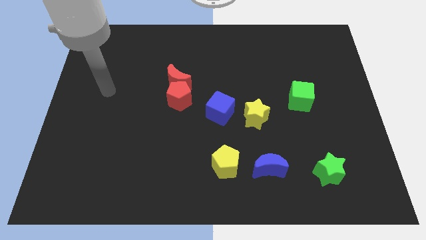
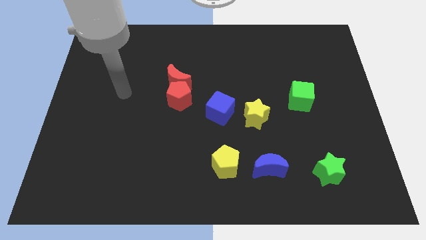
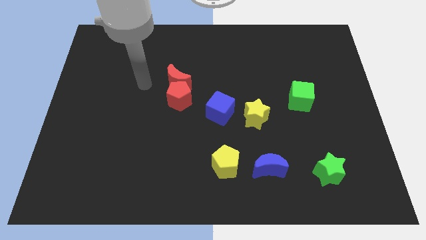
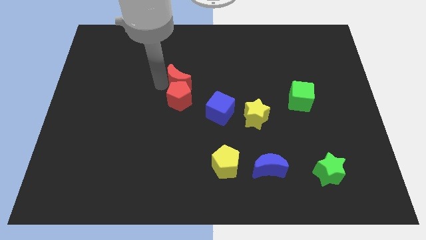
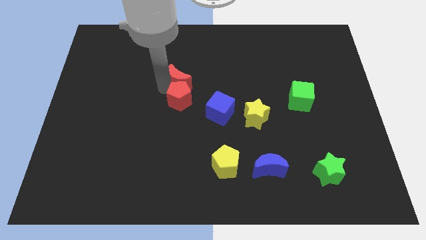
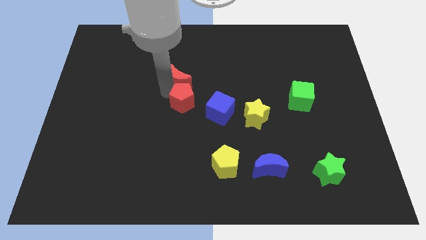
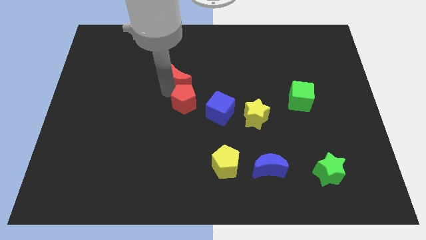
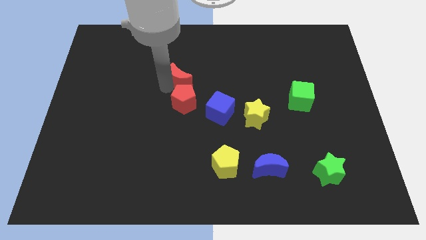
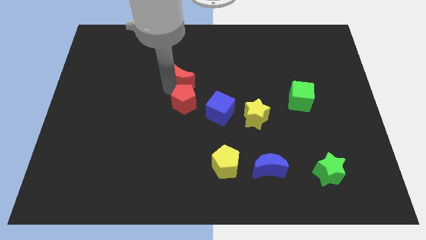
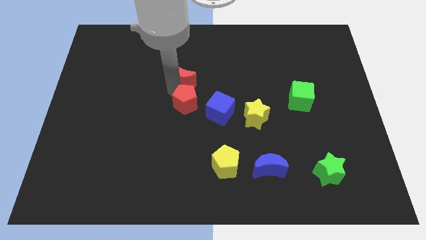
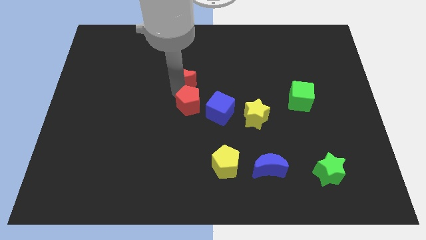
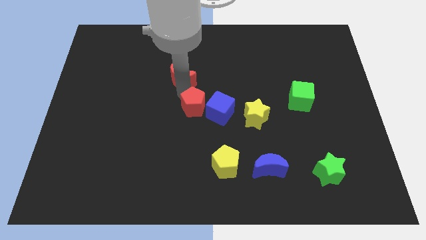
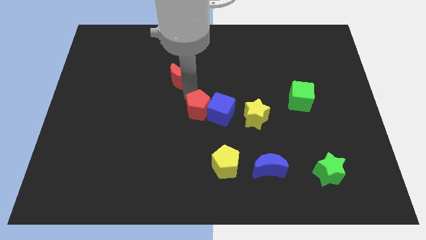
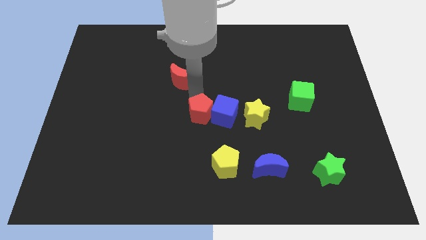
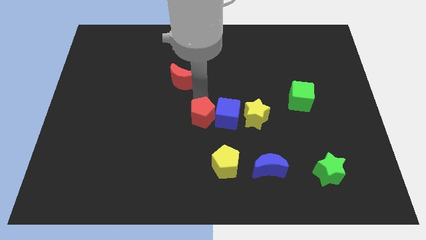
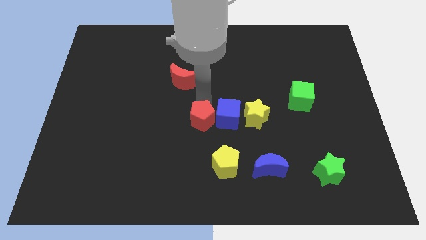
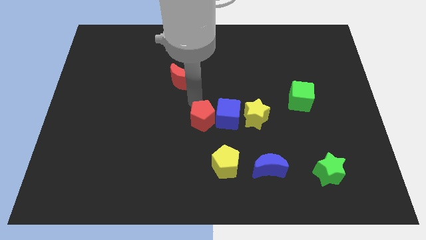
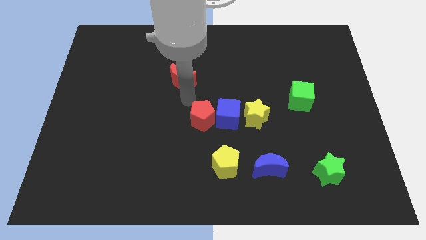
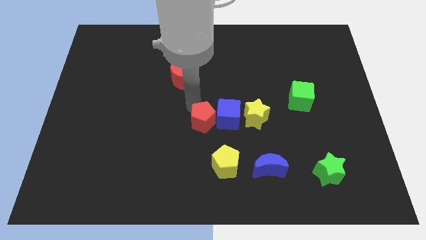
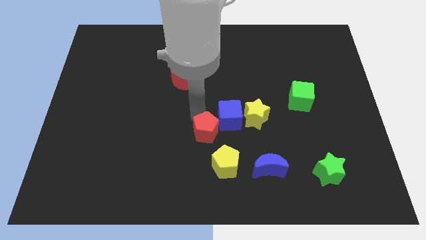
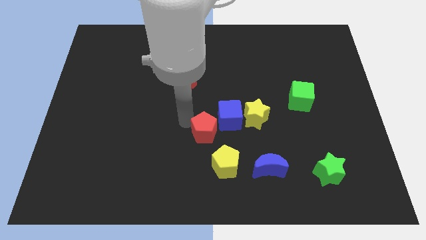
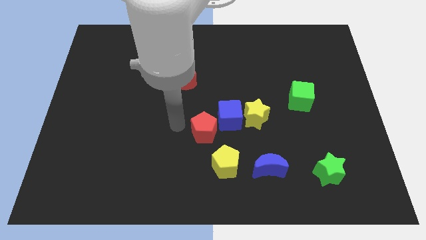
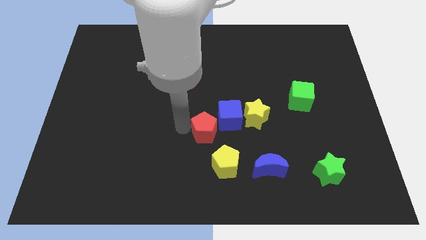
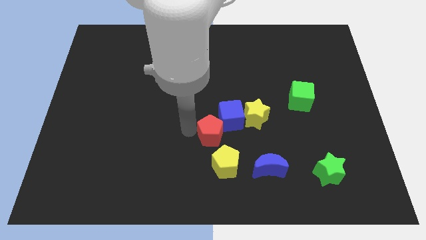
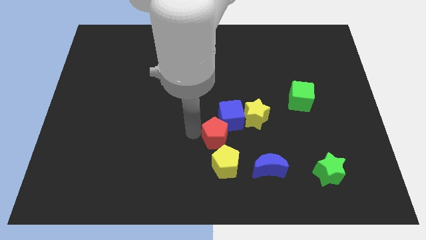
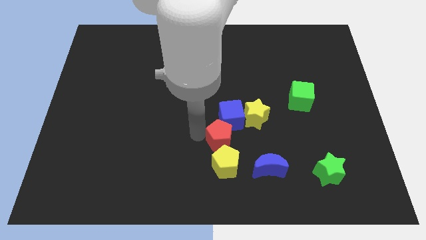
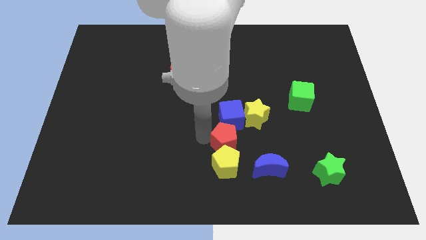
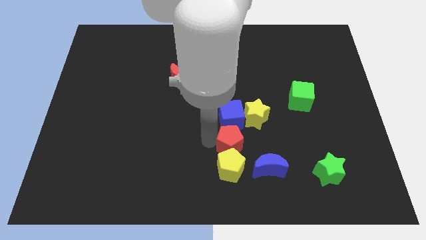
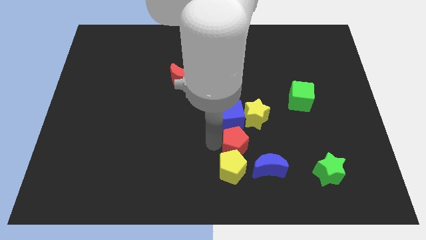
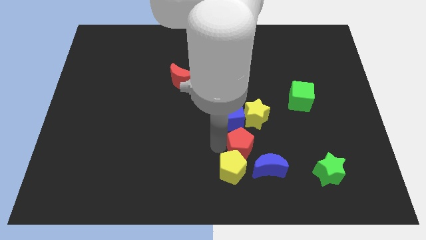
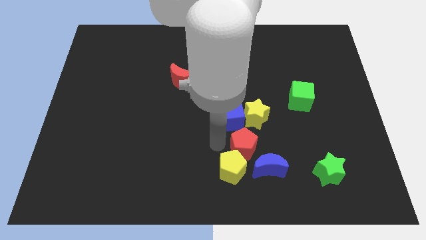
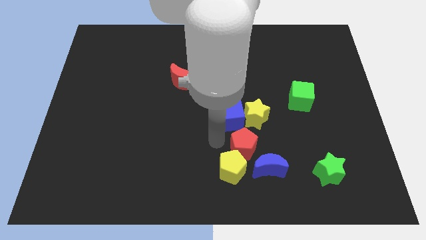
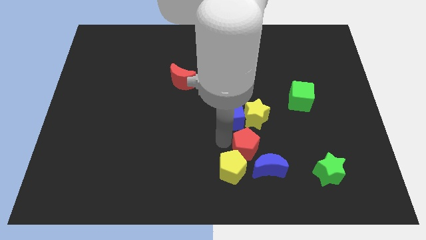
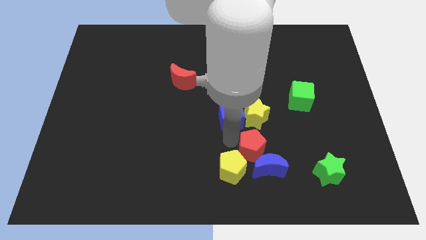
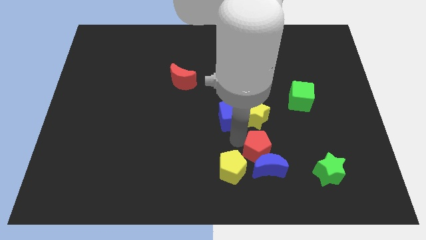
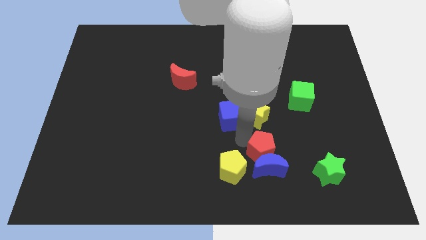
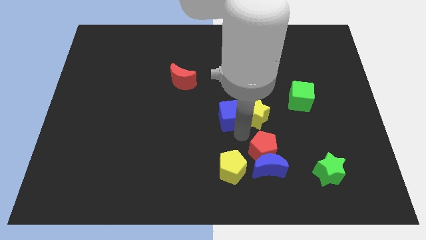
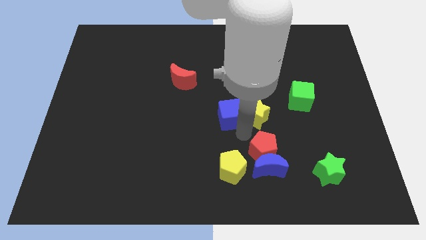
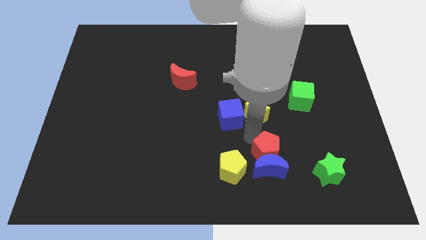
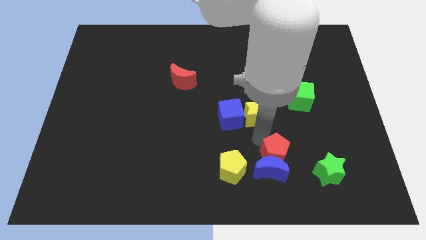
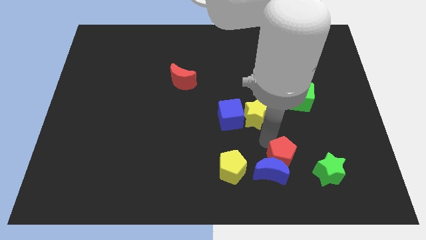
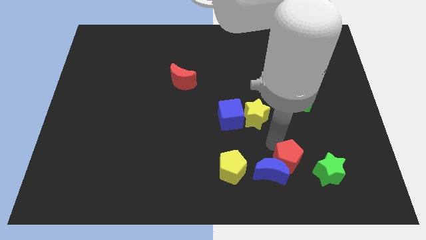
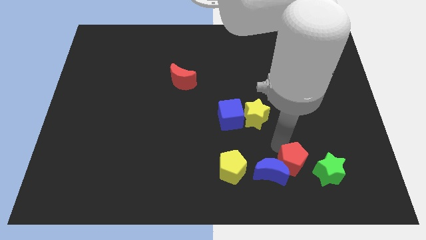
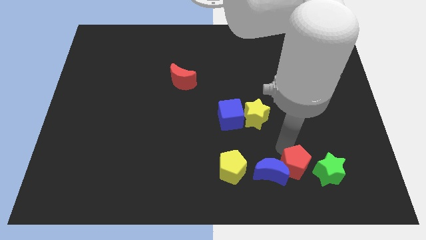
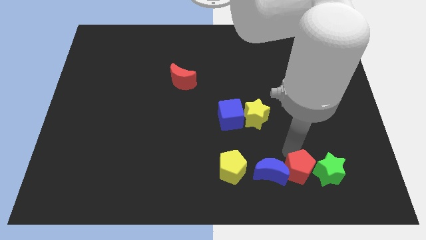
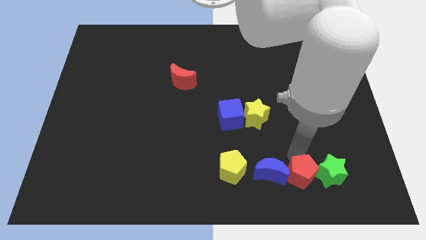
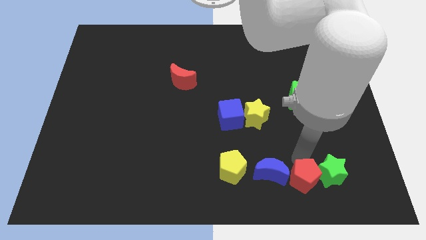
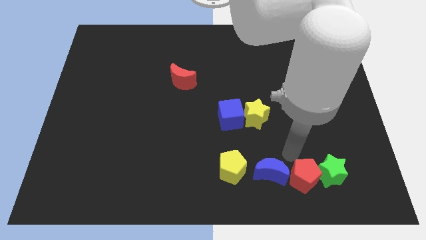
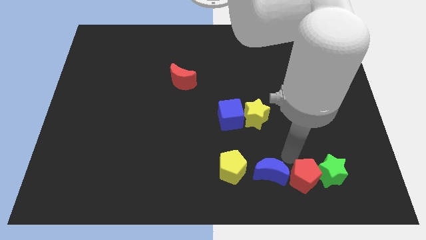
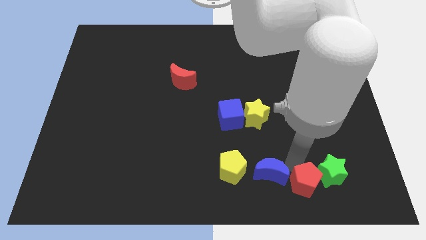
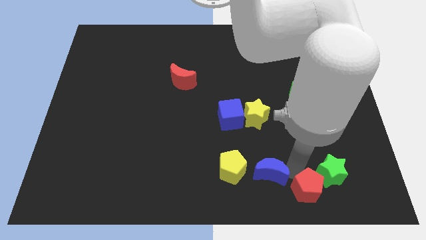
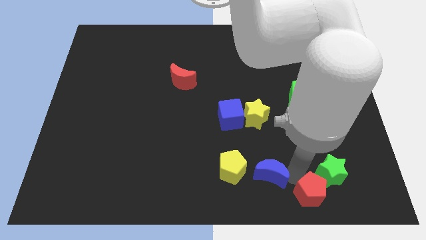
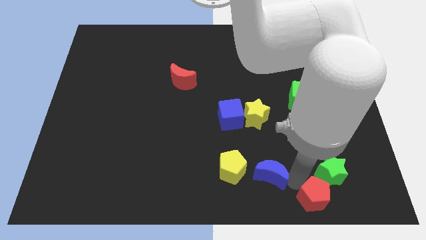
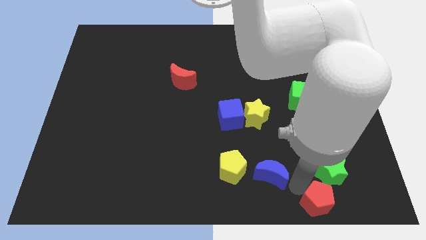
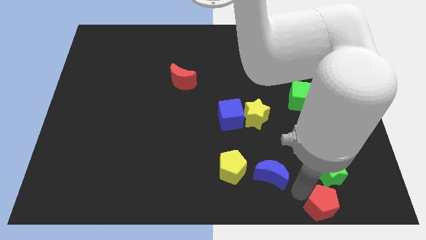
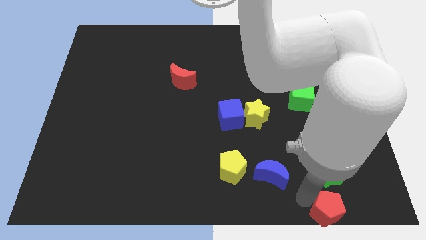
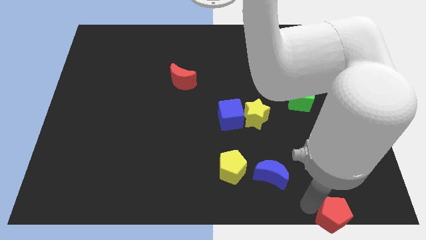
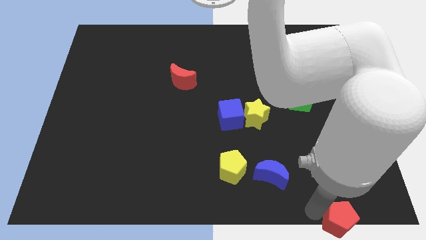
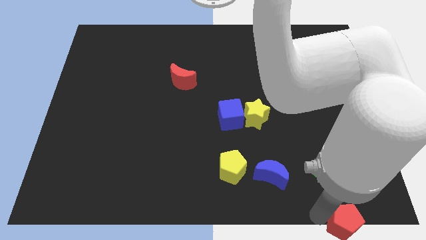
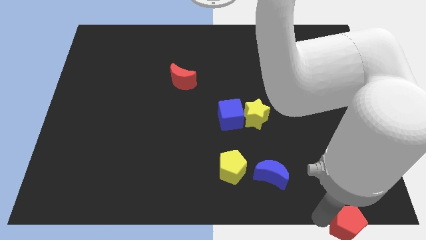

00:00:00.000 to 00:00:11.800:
slide the red pentagon to the lower right corner

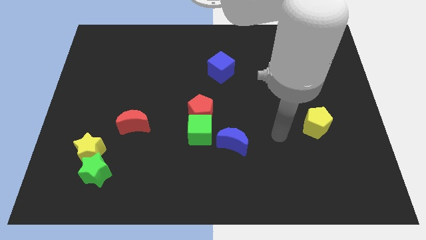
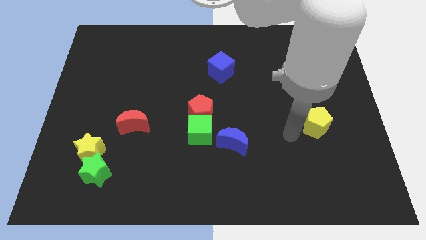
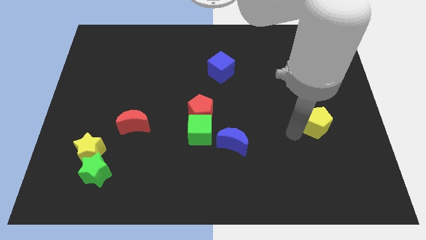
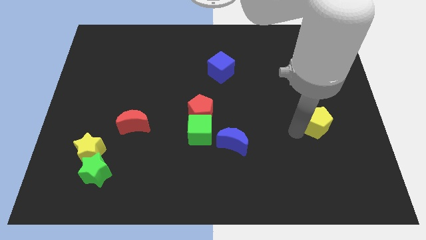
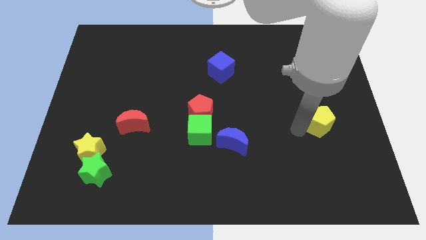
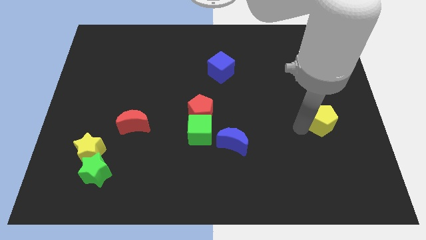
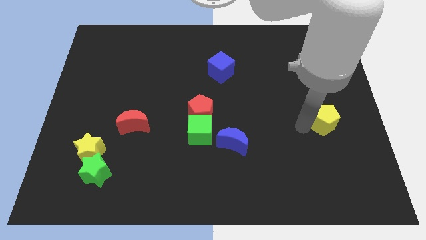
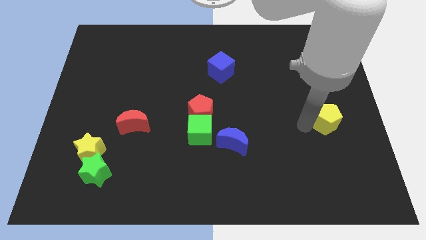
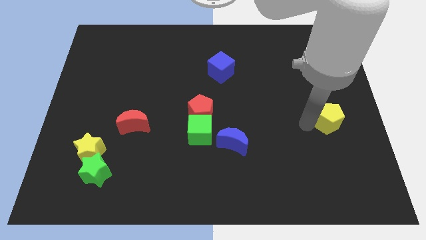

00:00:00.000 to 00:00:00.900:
slide the yellow pentagon to the center right
